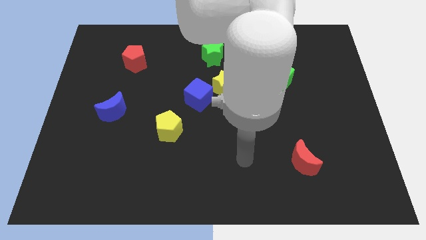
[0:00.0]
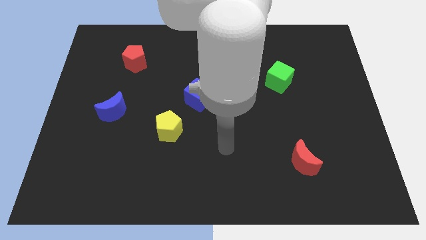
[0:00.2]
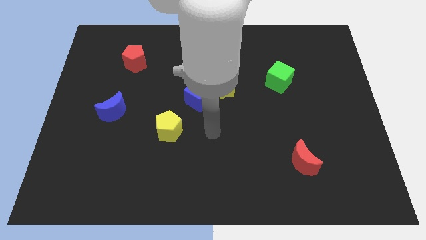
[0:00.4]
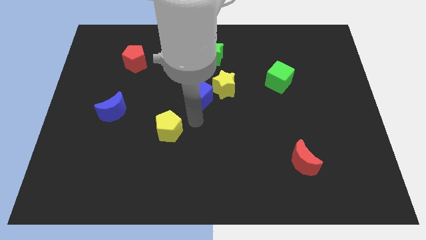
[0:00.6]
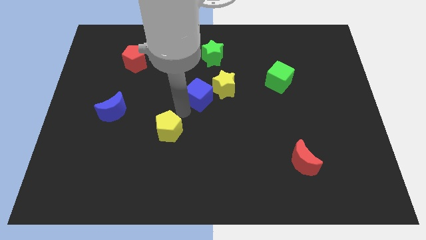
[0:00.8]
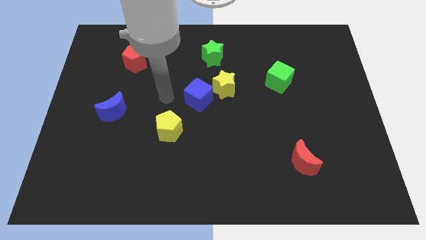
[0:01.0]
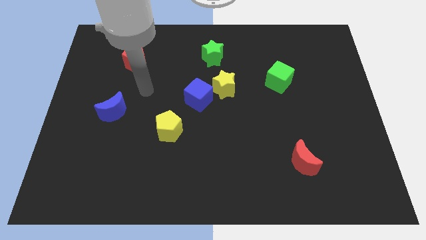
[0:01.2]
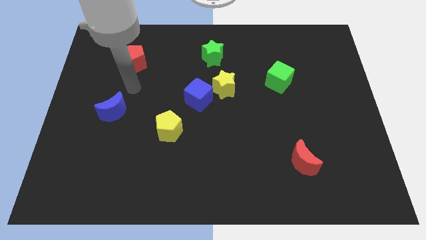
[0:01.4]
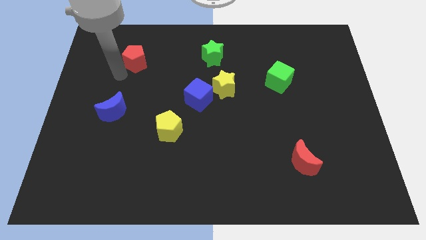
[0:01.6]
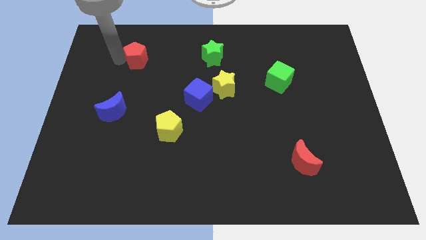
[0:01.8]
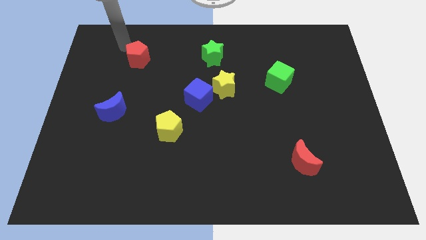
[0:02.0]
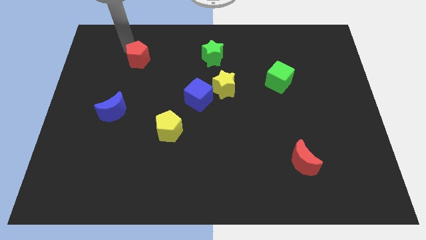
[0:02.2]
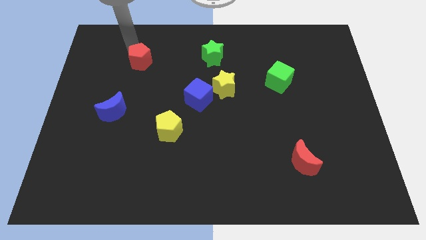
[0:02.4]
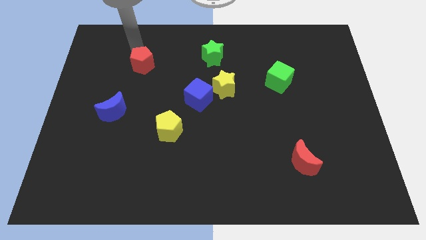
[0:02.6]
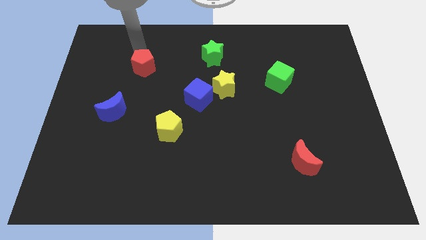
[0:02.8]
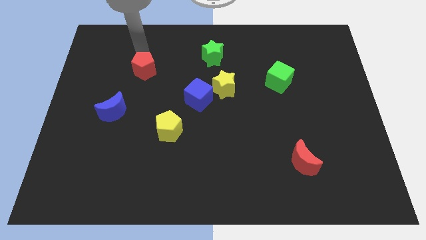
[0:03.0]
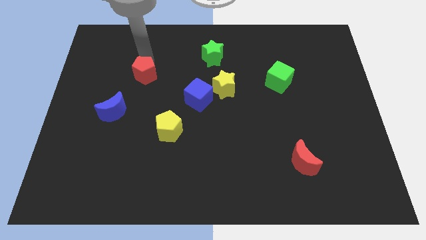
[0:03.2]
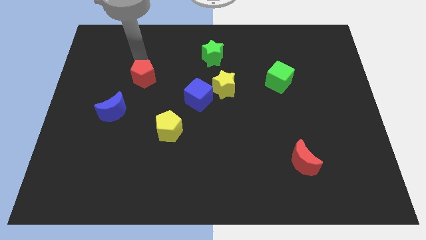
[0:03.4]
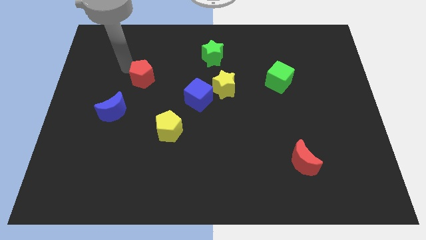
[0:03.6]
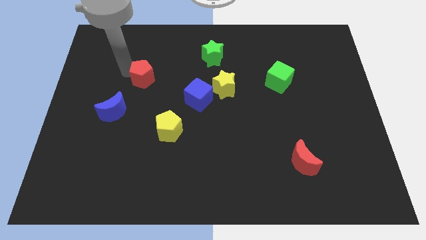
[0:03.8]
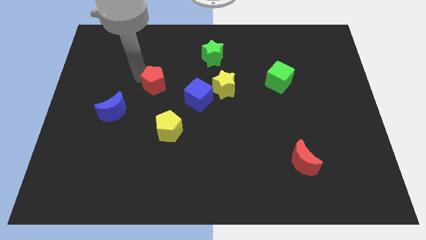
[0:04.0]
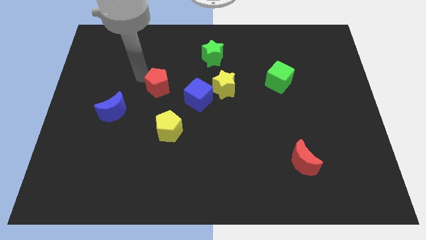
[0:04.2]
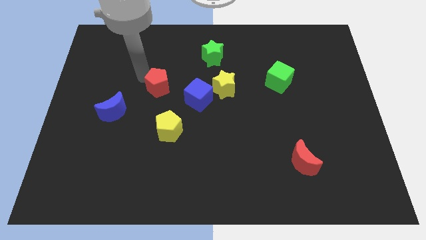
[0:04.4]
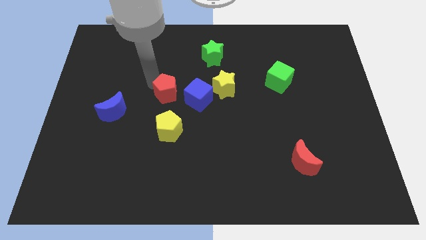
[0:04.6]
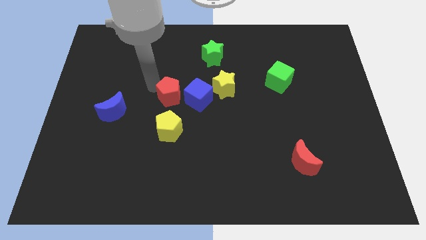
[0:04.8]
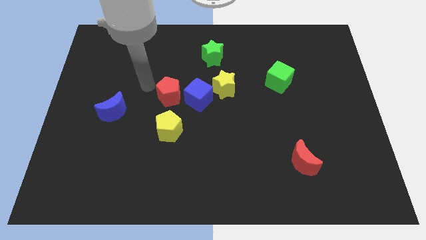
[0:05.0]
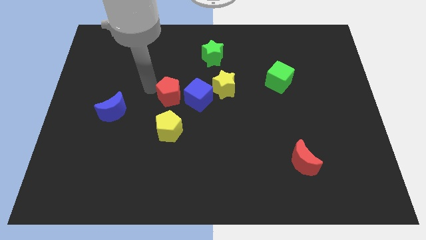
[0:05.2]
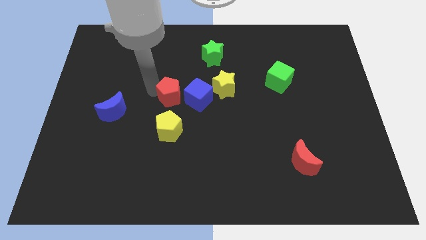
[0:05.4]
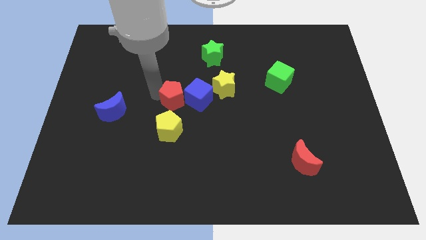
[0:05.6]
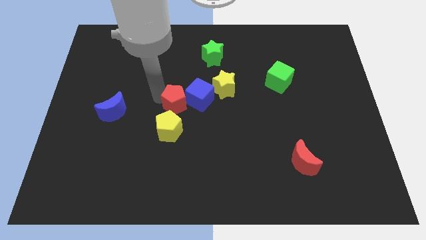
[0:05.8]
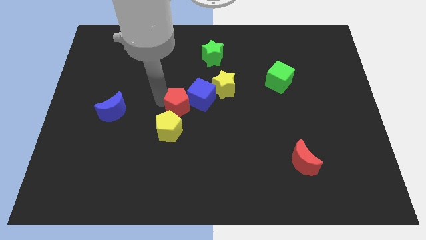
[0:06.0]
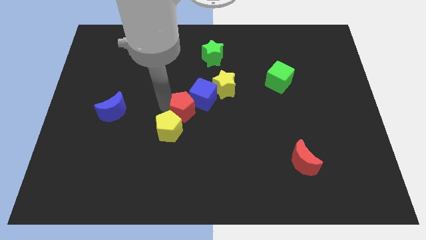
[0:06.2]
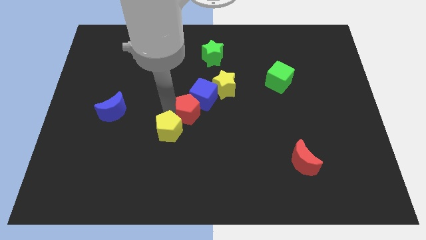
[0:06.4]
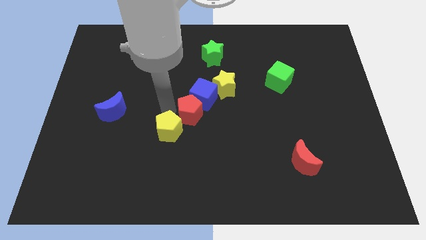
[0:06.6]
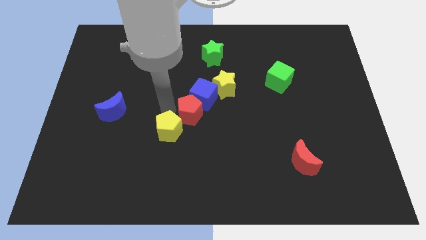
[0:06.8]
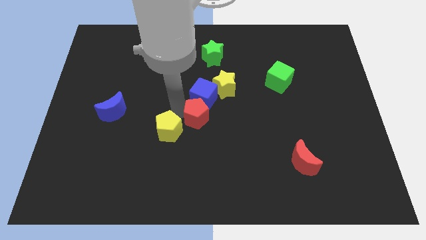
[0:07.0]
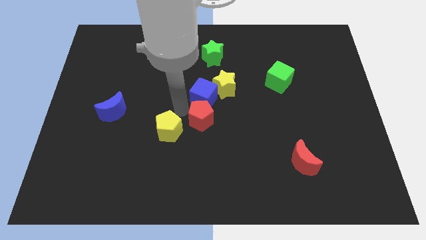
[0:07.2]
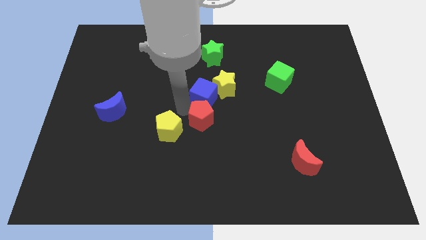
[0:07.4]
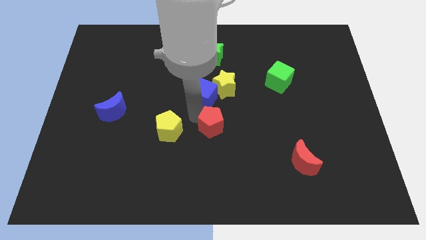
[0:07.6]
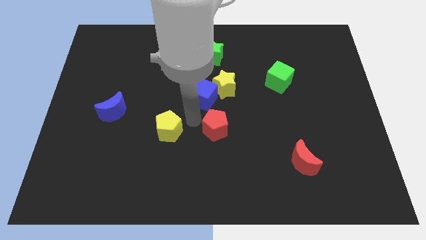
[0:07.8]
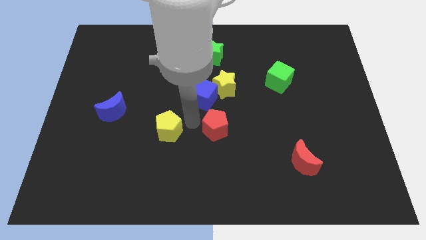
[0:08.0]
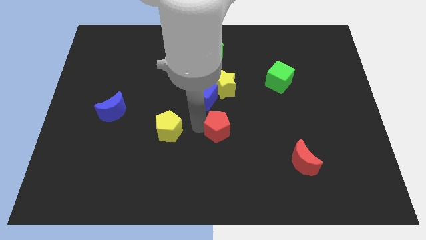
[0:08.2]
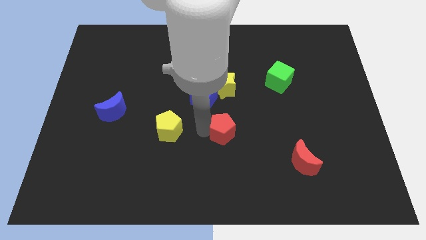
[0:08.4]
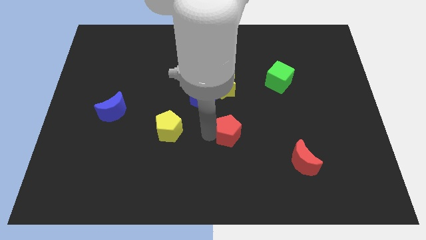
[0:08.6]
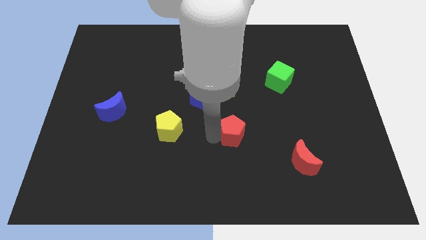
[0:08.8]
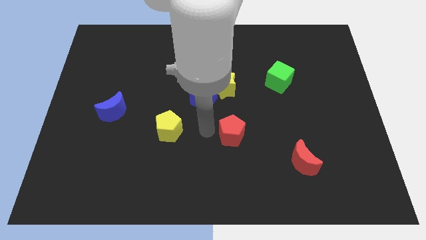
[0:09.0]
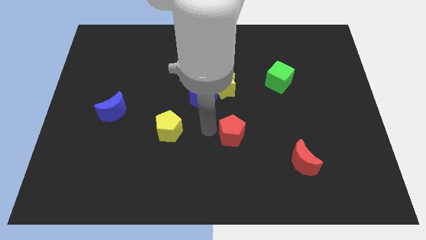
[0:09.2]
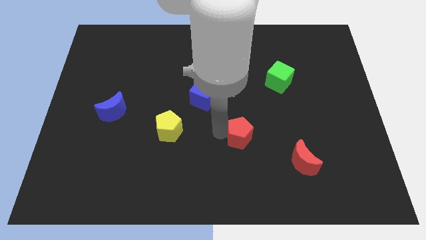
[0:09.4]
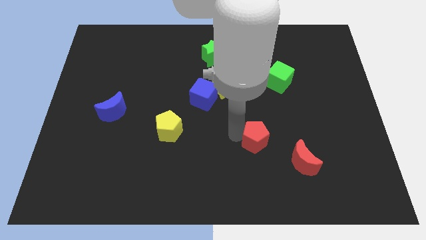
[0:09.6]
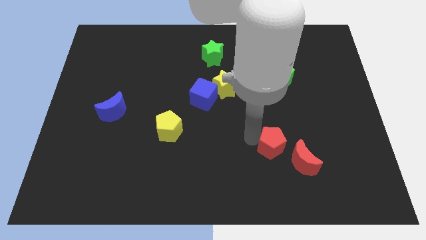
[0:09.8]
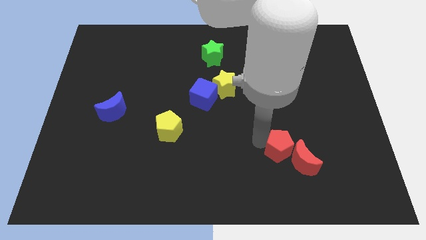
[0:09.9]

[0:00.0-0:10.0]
push the red pentagon towards the red moon

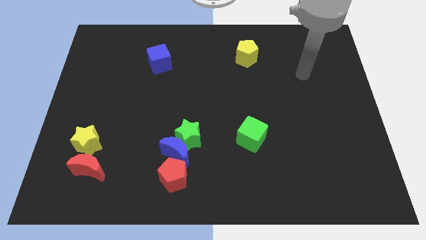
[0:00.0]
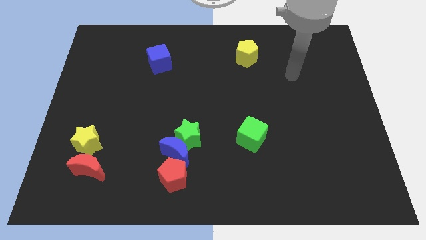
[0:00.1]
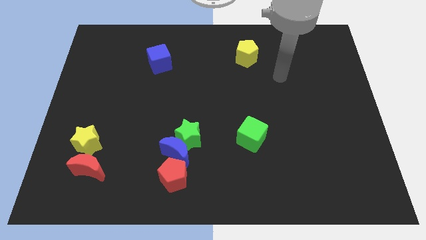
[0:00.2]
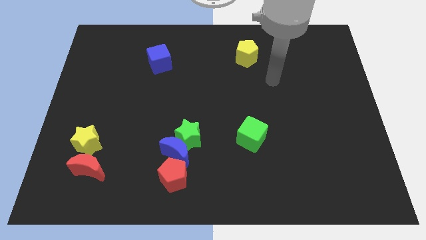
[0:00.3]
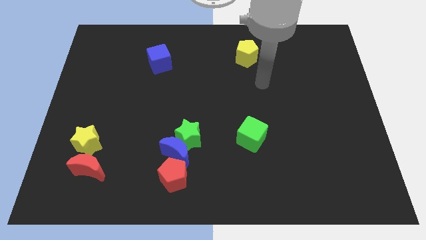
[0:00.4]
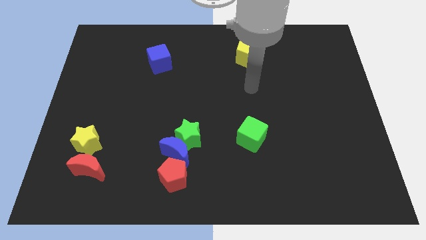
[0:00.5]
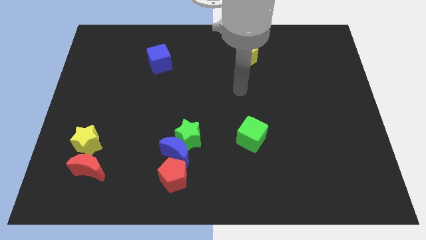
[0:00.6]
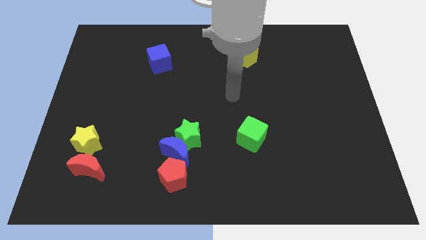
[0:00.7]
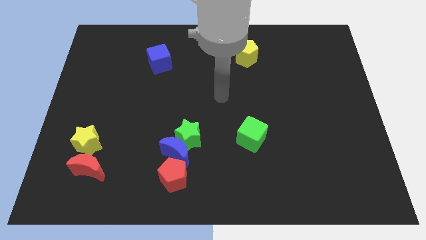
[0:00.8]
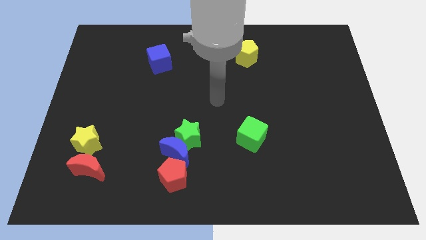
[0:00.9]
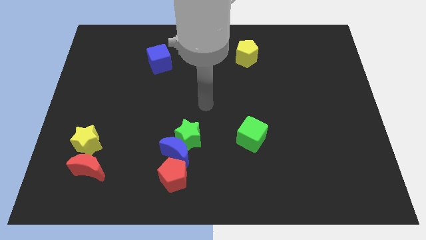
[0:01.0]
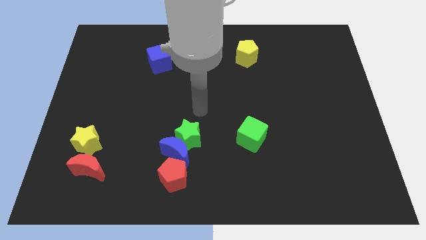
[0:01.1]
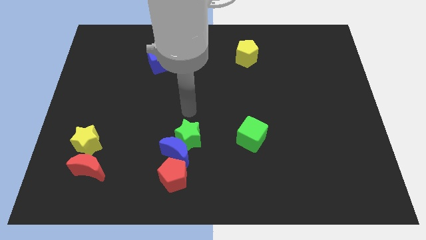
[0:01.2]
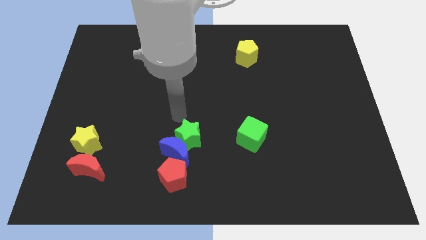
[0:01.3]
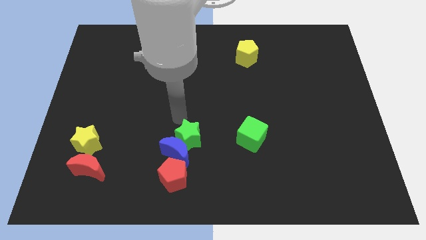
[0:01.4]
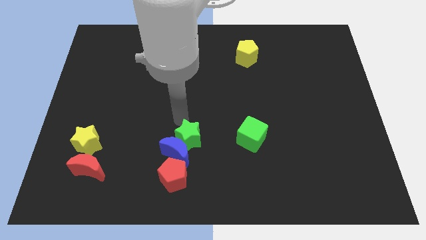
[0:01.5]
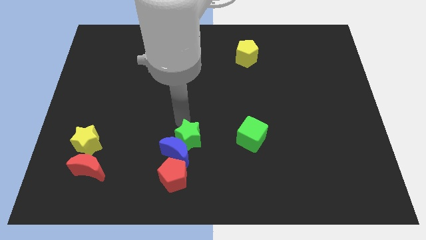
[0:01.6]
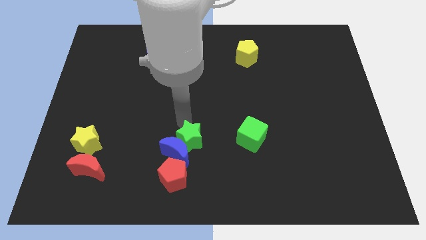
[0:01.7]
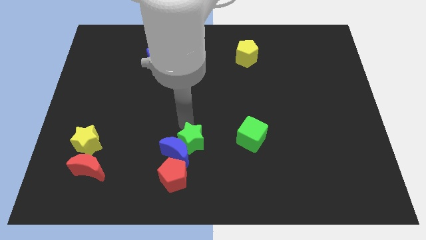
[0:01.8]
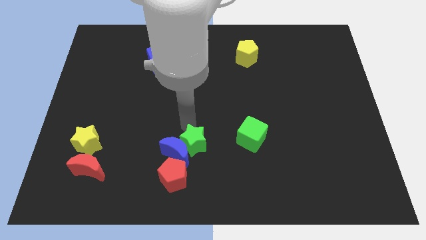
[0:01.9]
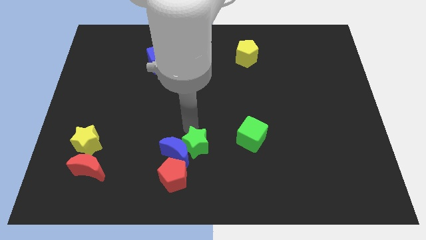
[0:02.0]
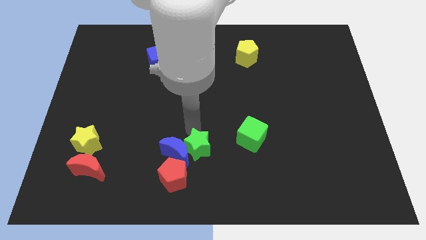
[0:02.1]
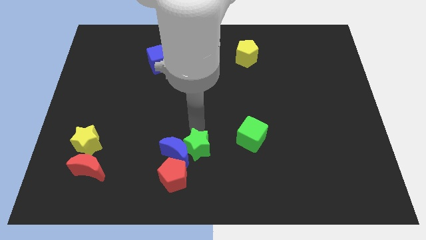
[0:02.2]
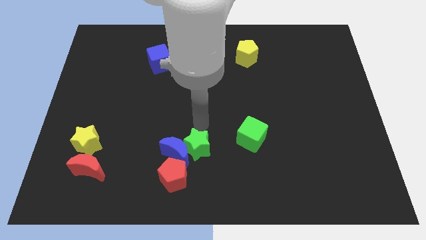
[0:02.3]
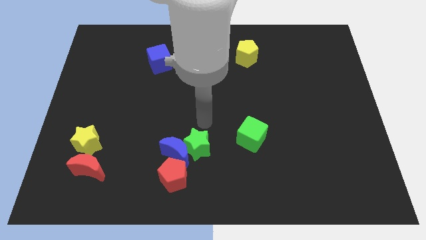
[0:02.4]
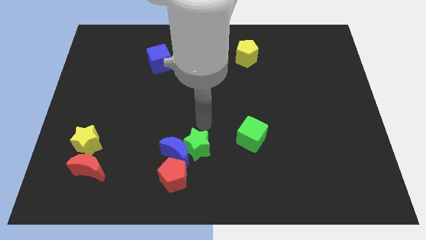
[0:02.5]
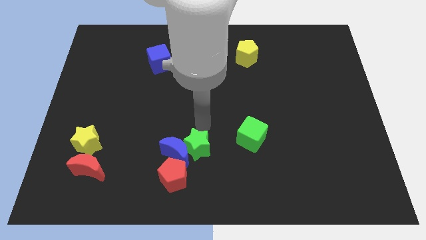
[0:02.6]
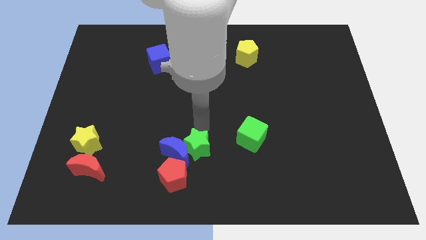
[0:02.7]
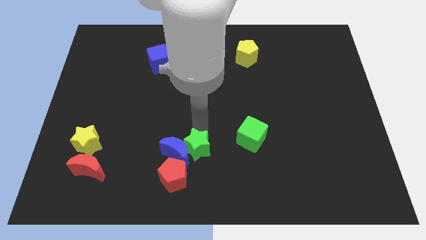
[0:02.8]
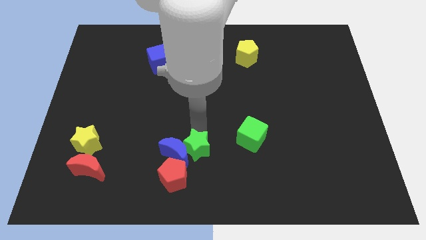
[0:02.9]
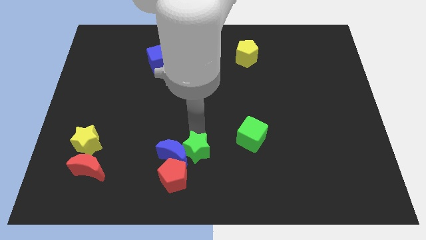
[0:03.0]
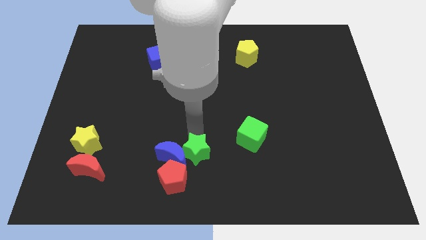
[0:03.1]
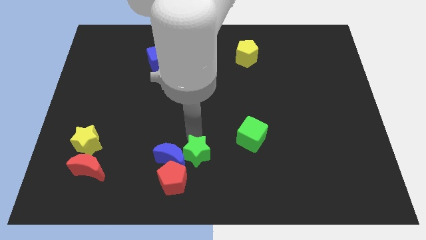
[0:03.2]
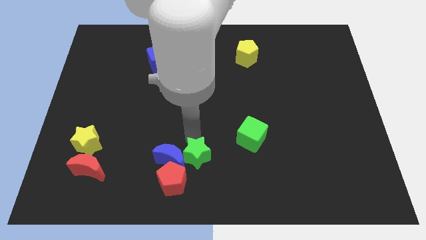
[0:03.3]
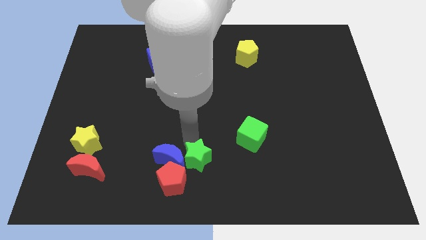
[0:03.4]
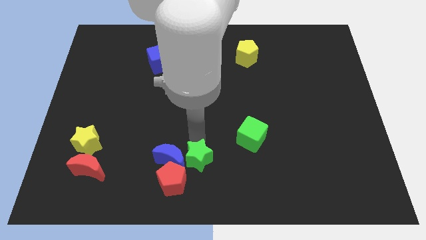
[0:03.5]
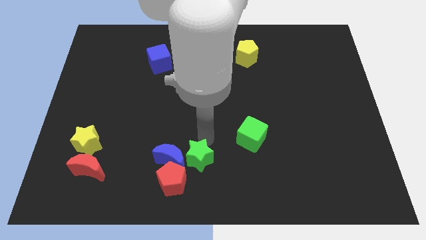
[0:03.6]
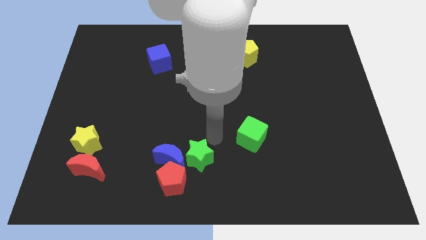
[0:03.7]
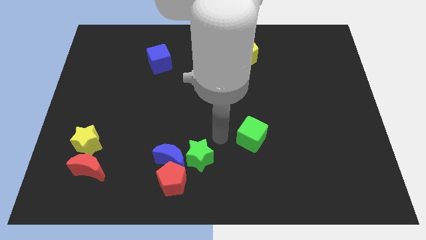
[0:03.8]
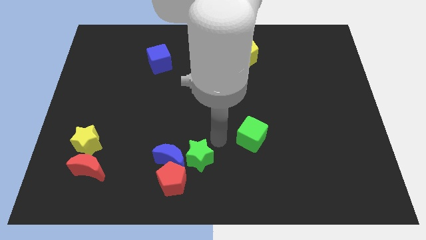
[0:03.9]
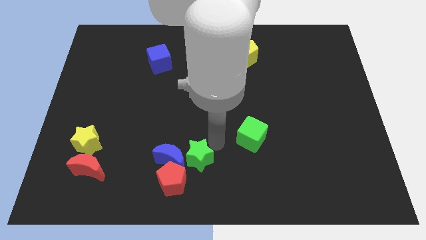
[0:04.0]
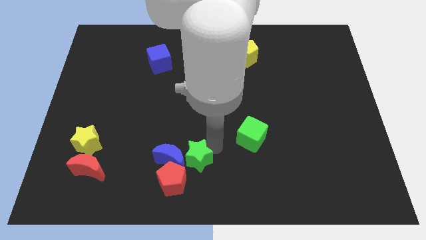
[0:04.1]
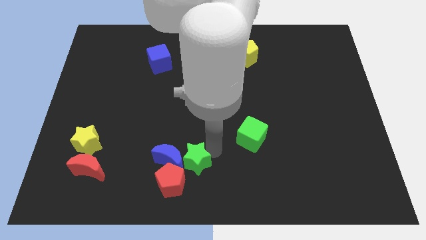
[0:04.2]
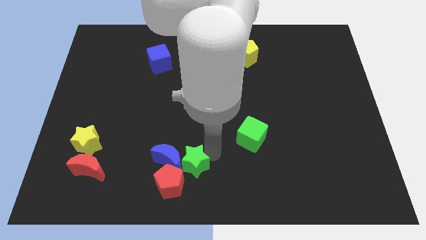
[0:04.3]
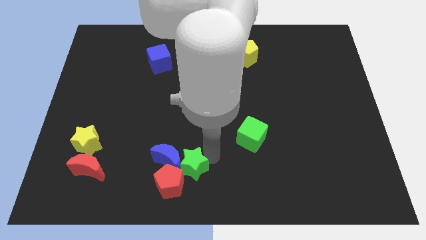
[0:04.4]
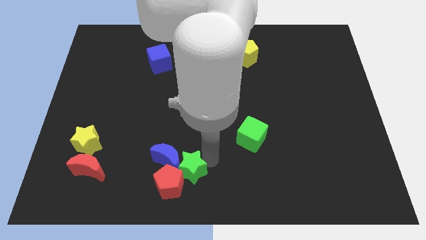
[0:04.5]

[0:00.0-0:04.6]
move the green star next to the red pentagon
